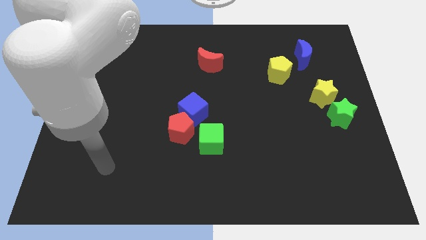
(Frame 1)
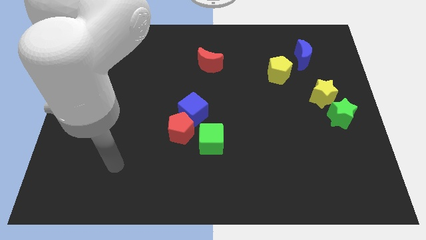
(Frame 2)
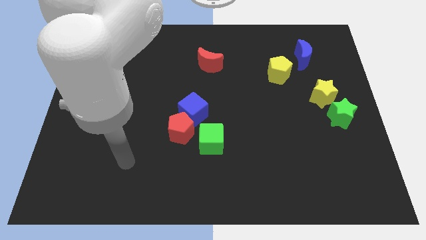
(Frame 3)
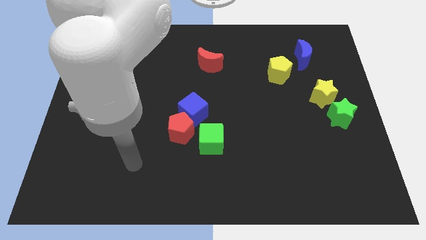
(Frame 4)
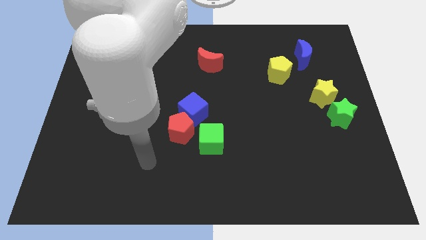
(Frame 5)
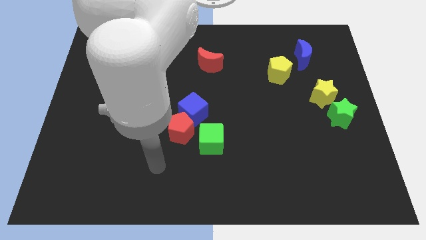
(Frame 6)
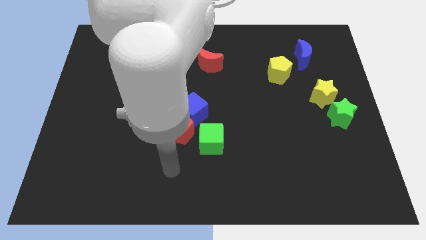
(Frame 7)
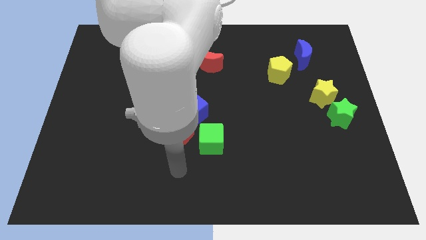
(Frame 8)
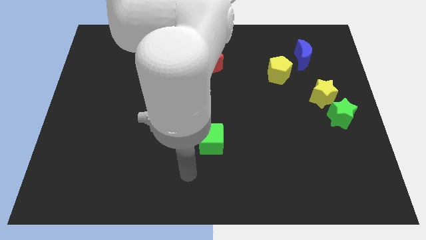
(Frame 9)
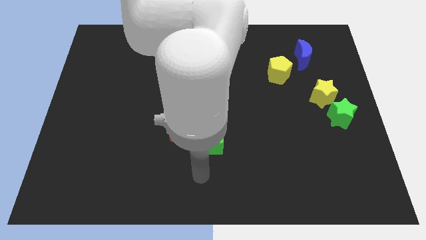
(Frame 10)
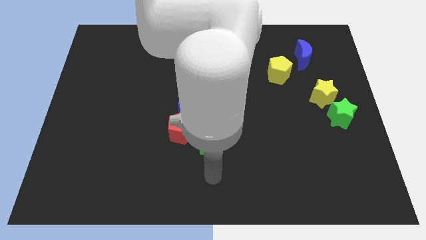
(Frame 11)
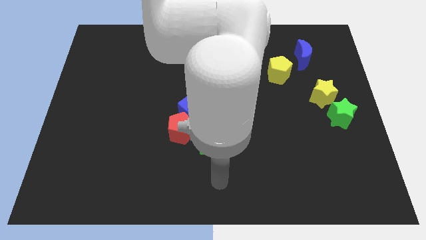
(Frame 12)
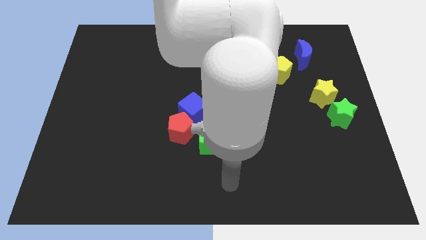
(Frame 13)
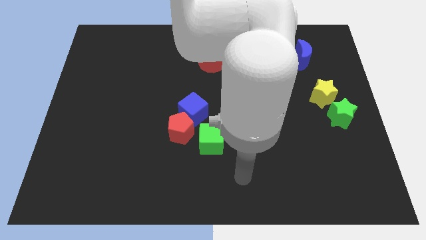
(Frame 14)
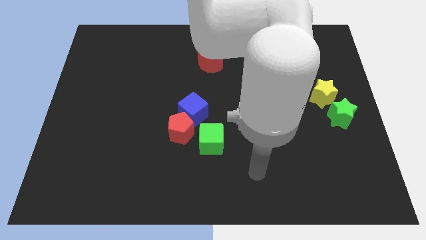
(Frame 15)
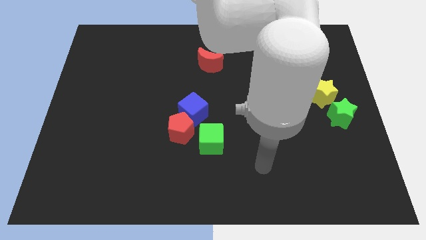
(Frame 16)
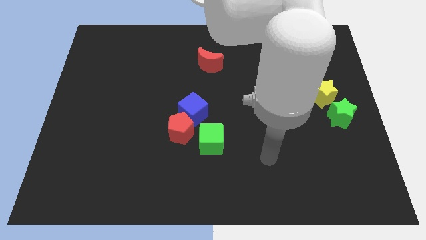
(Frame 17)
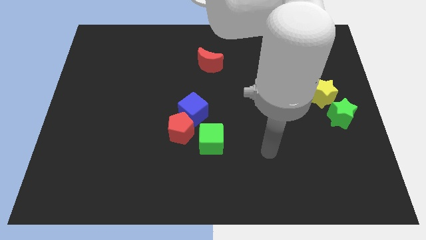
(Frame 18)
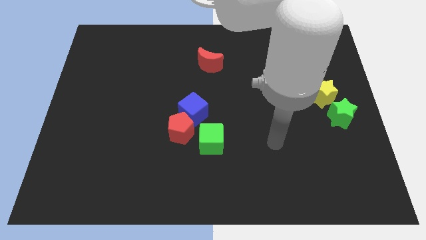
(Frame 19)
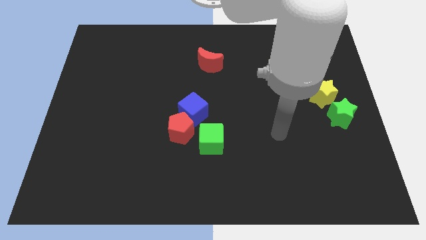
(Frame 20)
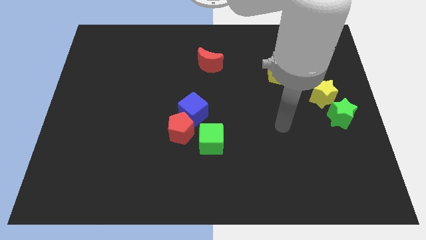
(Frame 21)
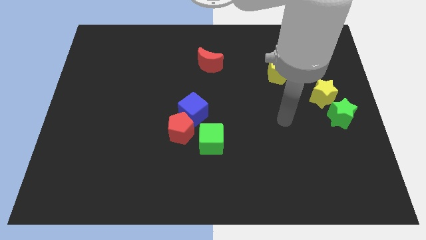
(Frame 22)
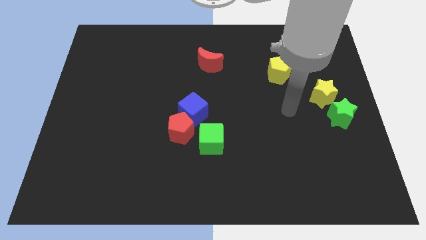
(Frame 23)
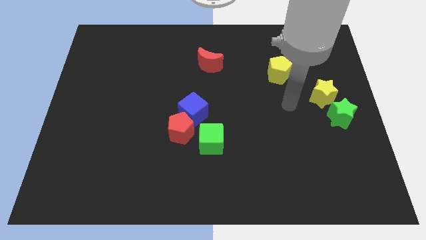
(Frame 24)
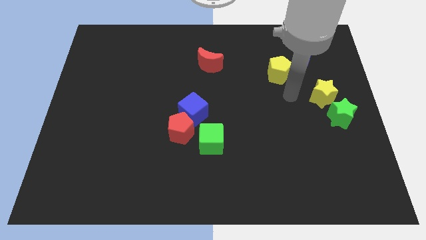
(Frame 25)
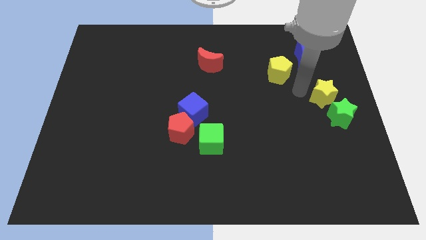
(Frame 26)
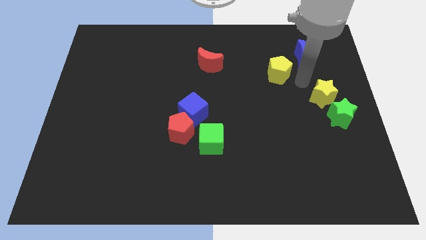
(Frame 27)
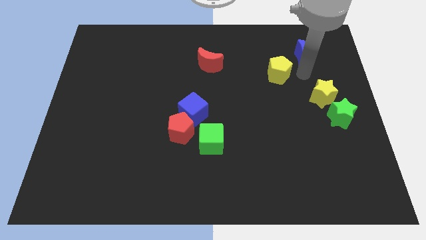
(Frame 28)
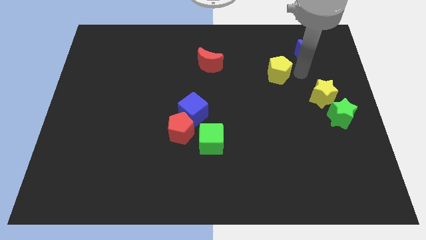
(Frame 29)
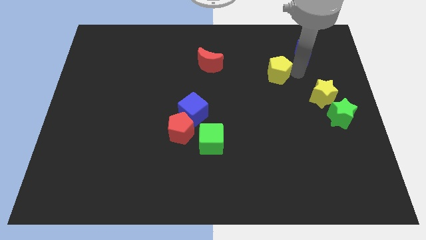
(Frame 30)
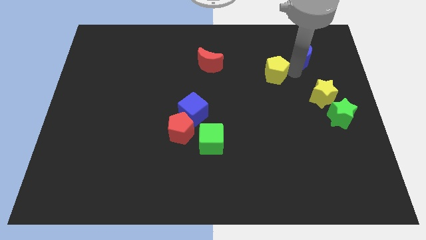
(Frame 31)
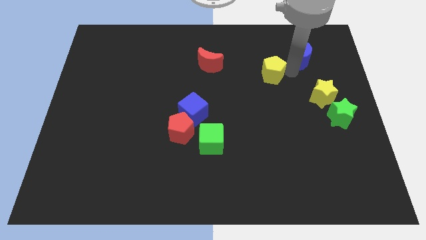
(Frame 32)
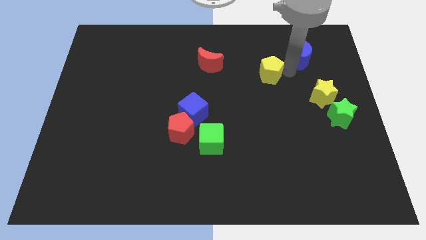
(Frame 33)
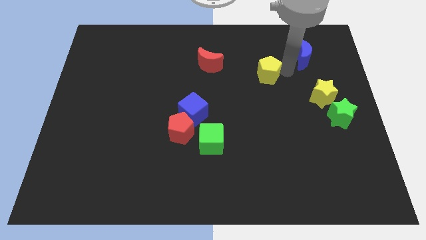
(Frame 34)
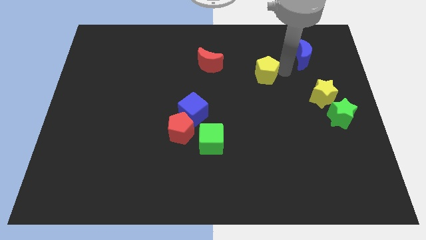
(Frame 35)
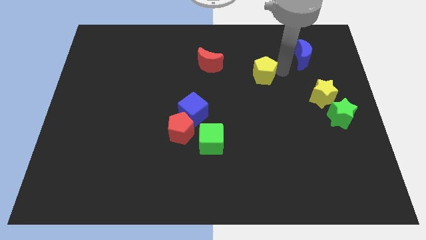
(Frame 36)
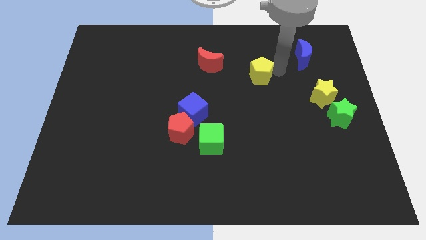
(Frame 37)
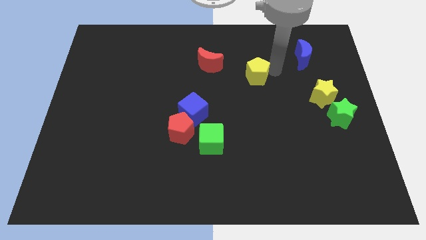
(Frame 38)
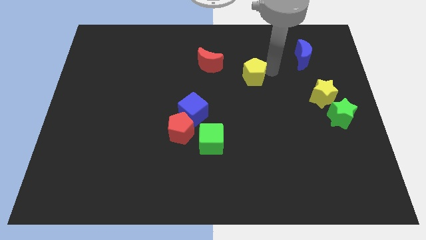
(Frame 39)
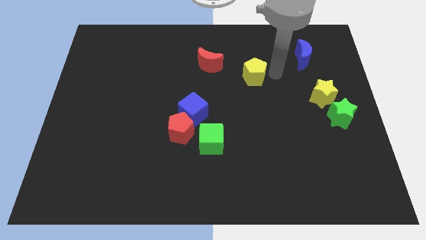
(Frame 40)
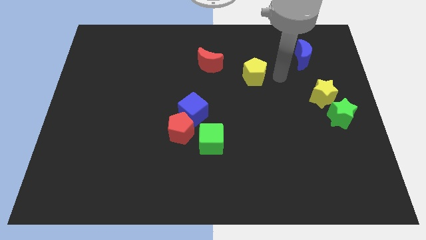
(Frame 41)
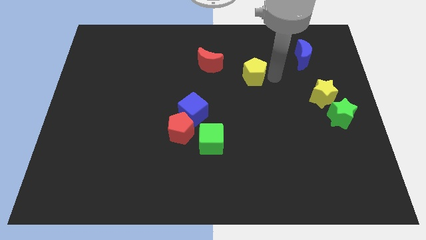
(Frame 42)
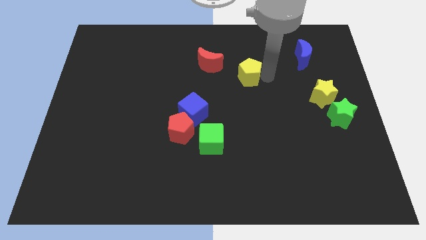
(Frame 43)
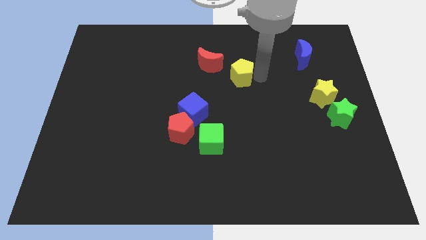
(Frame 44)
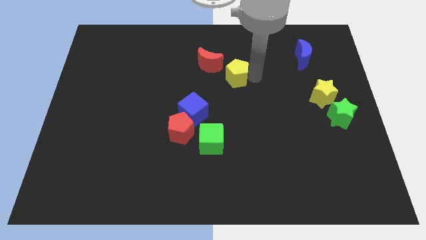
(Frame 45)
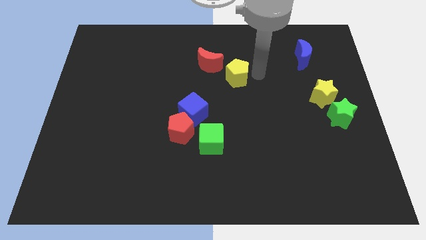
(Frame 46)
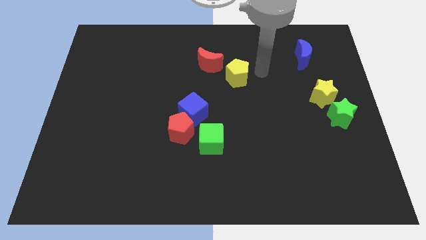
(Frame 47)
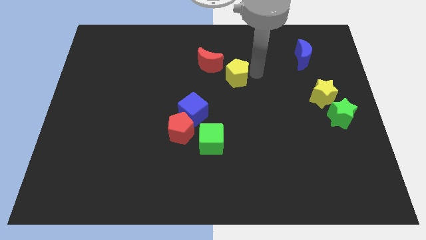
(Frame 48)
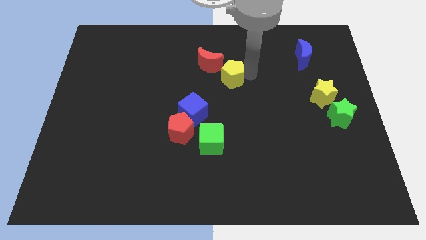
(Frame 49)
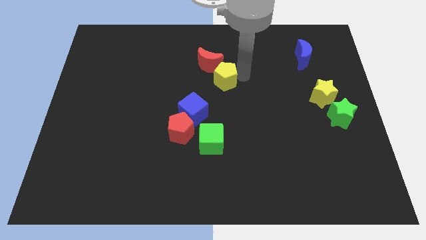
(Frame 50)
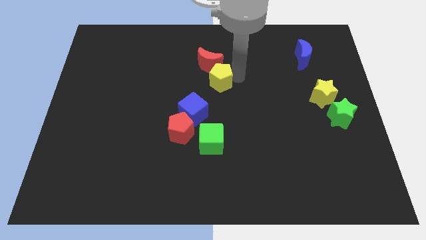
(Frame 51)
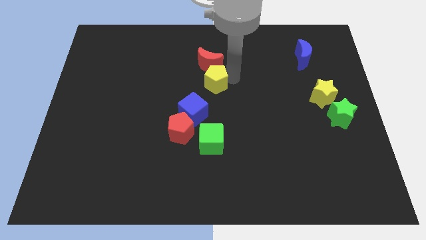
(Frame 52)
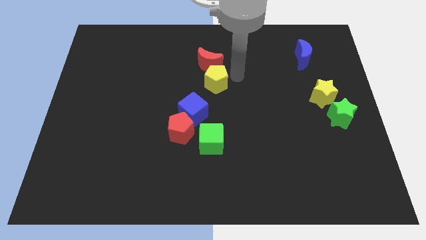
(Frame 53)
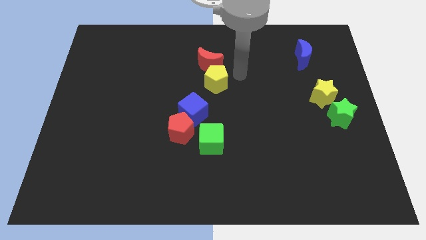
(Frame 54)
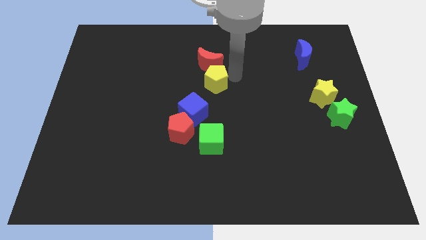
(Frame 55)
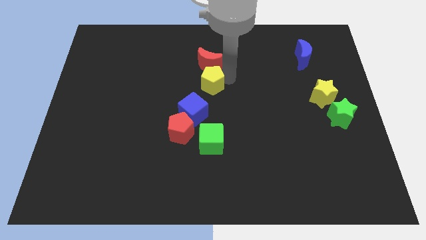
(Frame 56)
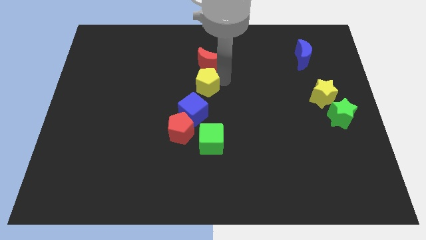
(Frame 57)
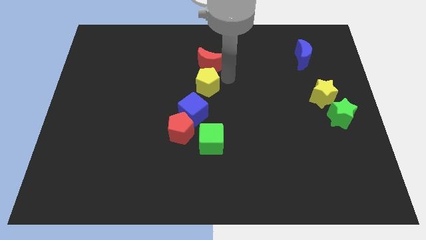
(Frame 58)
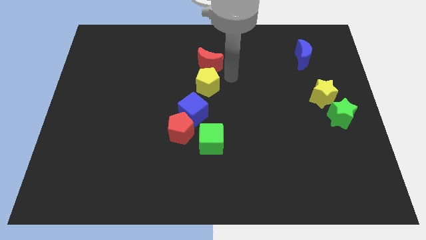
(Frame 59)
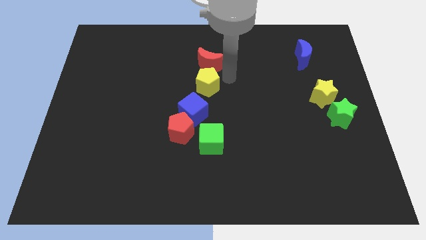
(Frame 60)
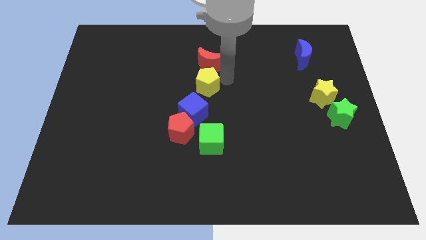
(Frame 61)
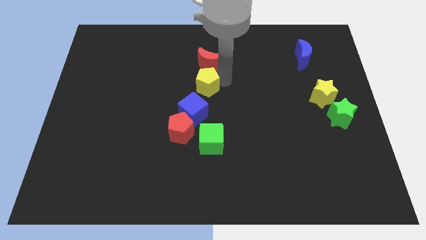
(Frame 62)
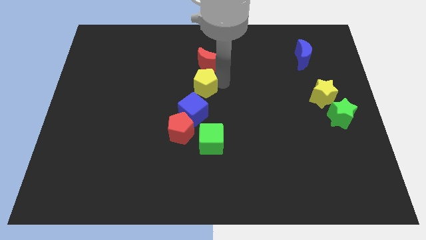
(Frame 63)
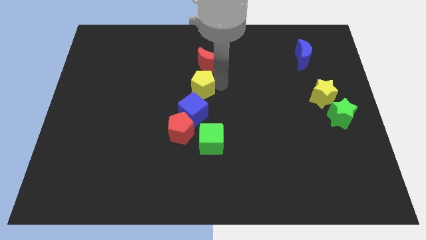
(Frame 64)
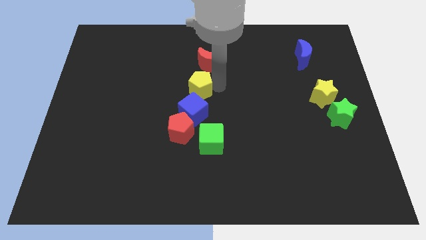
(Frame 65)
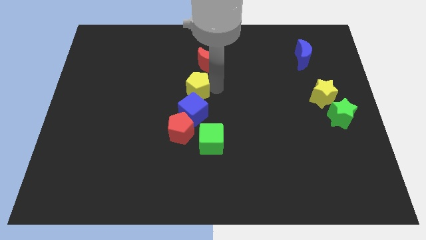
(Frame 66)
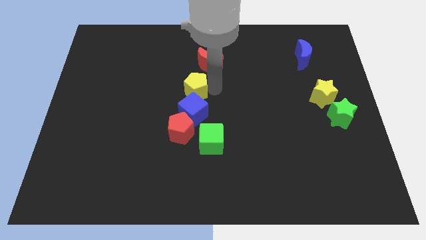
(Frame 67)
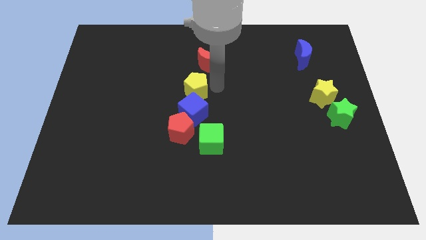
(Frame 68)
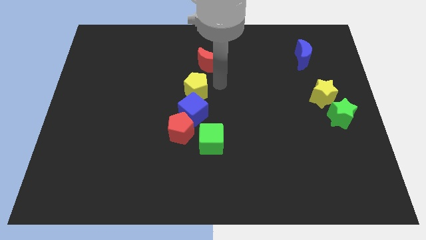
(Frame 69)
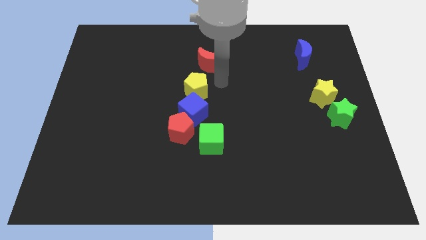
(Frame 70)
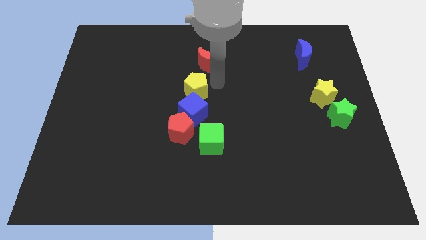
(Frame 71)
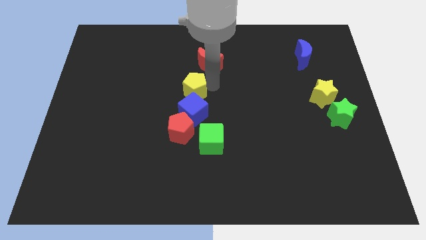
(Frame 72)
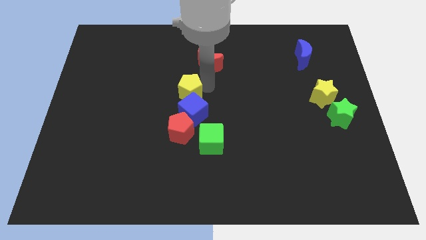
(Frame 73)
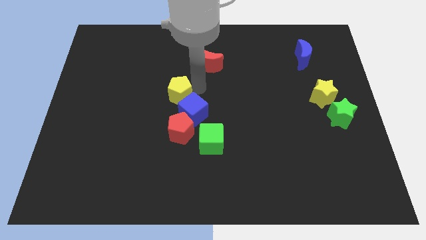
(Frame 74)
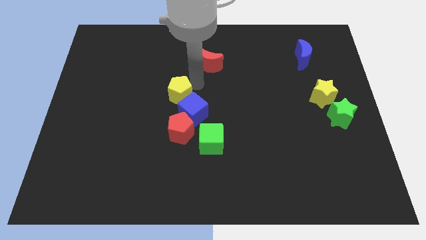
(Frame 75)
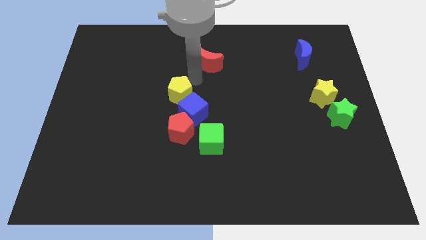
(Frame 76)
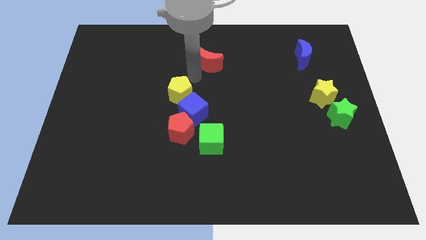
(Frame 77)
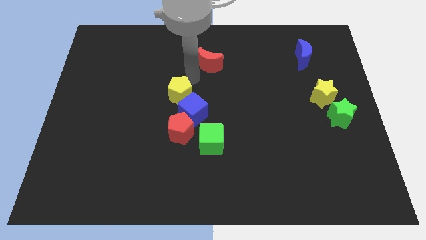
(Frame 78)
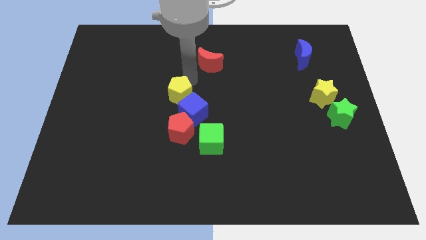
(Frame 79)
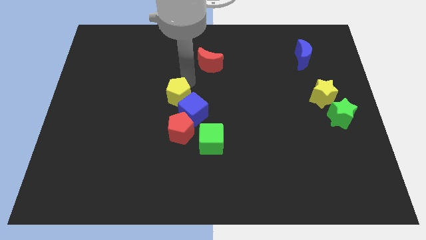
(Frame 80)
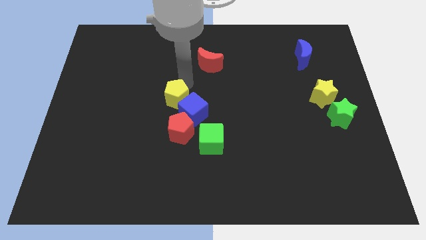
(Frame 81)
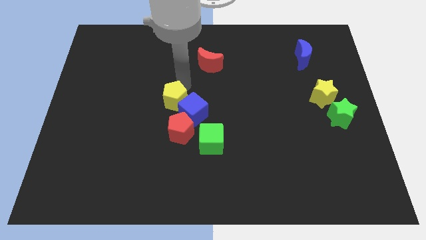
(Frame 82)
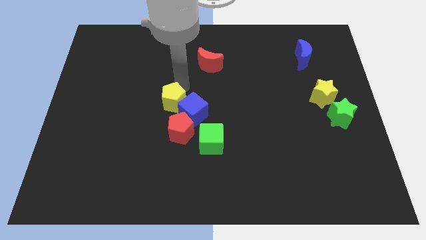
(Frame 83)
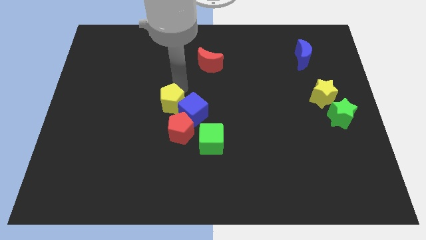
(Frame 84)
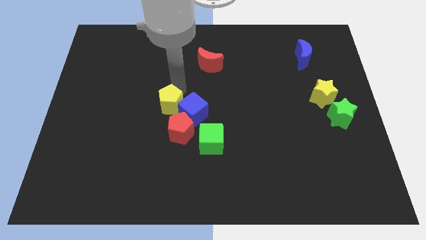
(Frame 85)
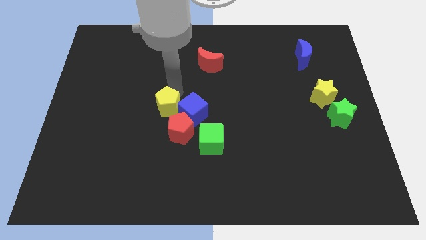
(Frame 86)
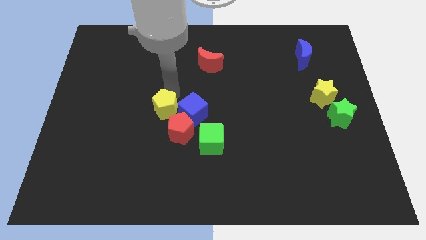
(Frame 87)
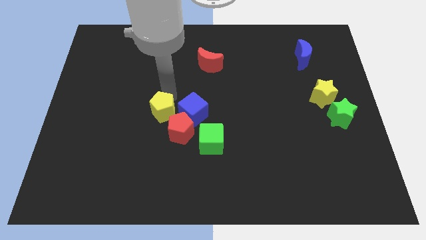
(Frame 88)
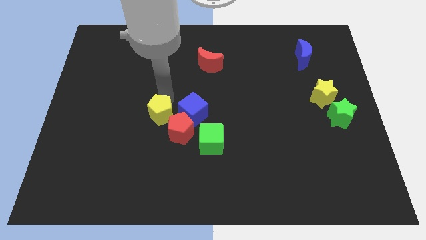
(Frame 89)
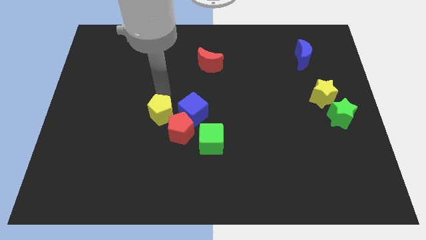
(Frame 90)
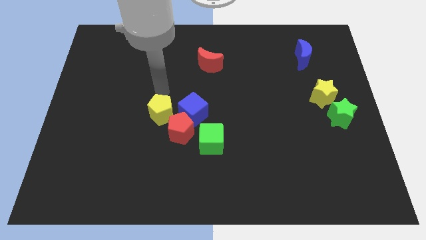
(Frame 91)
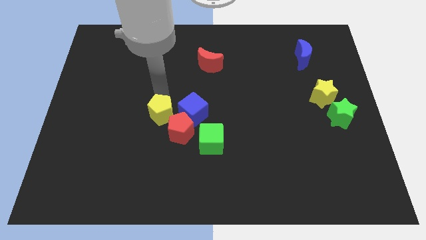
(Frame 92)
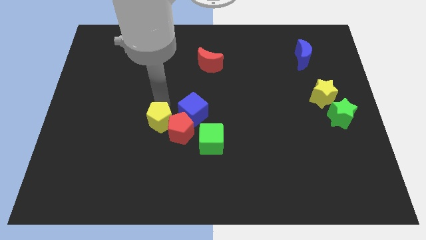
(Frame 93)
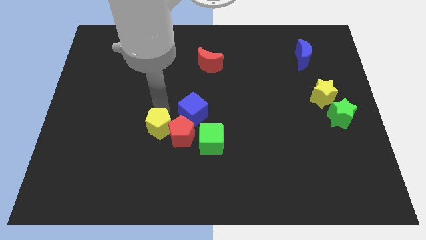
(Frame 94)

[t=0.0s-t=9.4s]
move the yellow pentagon to the left of the green cube
